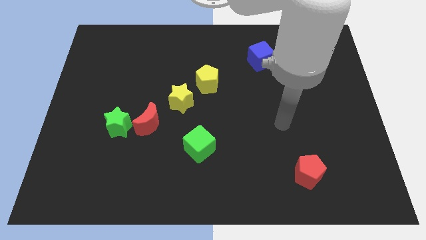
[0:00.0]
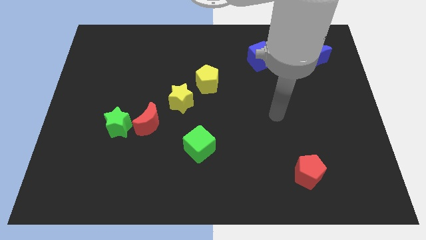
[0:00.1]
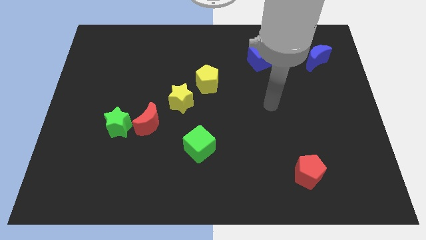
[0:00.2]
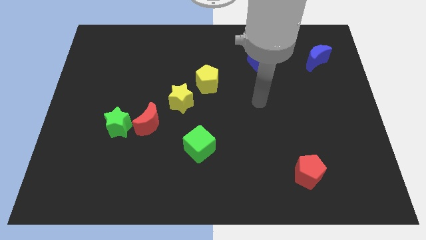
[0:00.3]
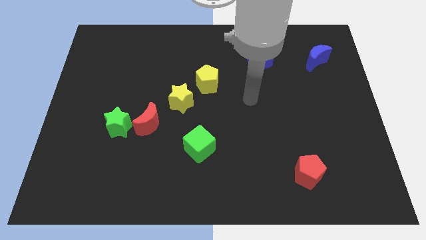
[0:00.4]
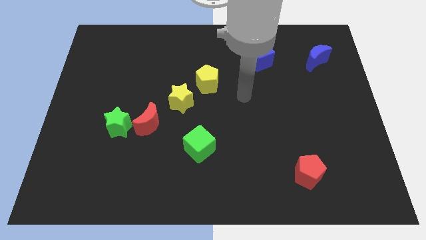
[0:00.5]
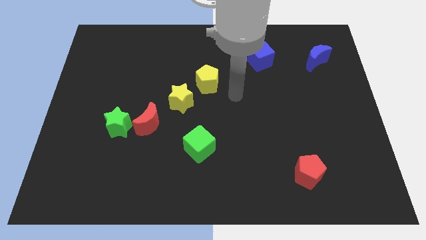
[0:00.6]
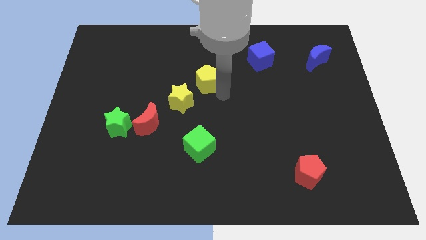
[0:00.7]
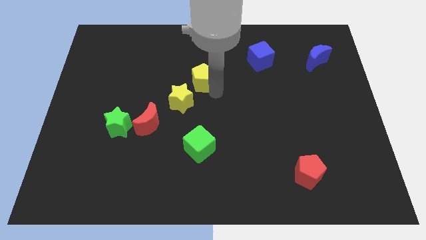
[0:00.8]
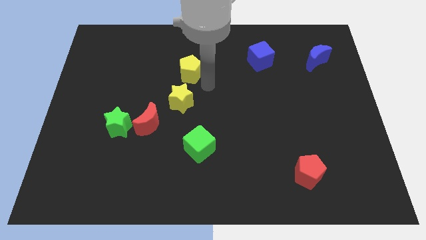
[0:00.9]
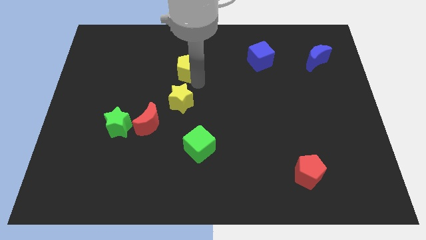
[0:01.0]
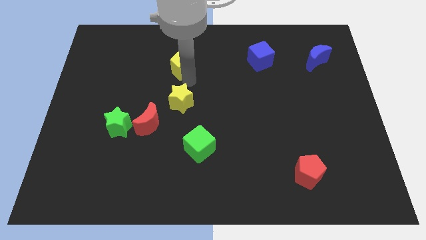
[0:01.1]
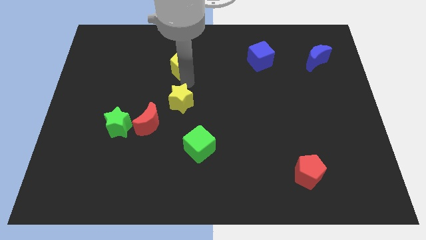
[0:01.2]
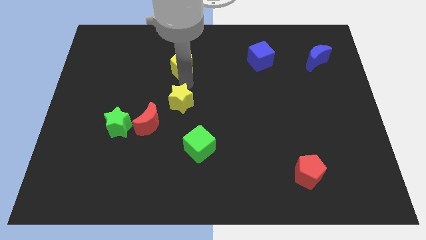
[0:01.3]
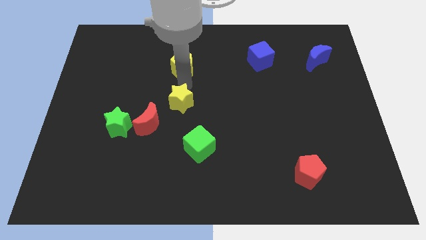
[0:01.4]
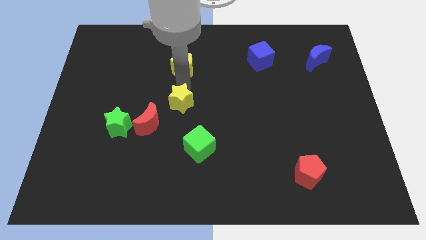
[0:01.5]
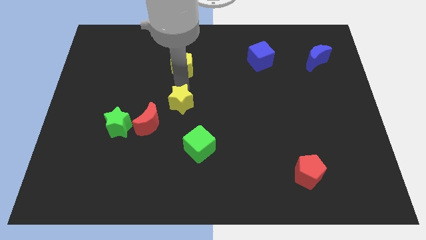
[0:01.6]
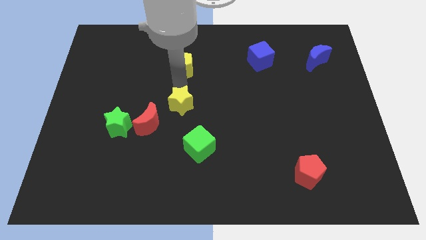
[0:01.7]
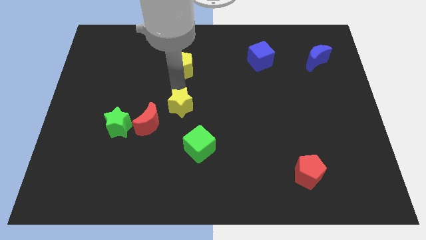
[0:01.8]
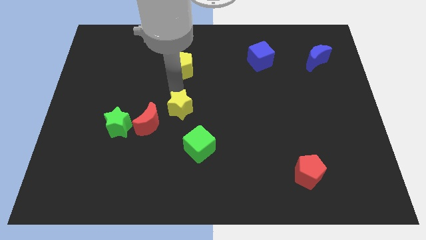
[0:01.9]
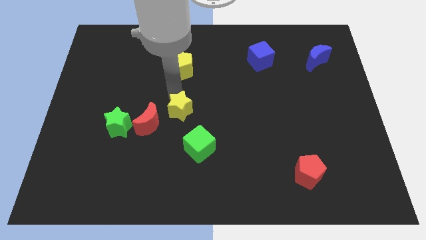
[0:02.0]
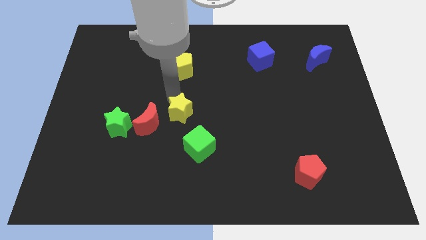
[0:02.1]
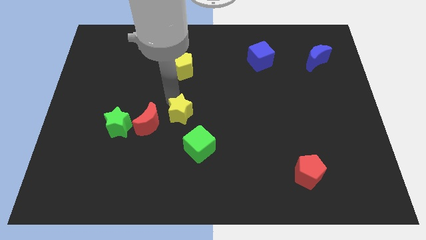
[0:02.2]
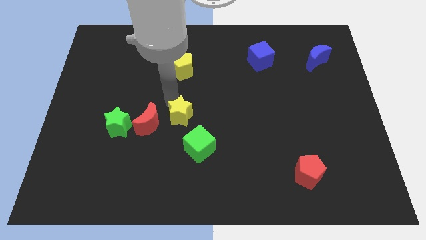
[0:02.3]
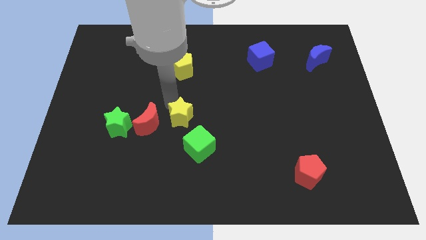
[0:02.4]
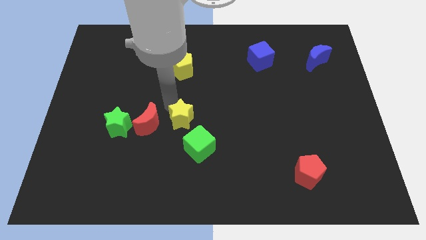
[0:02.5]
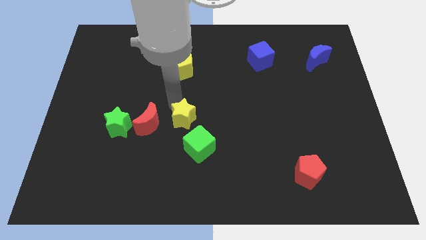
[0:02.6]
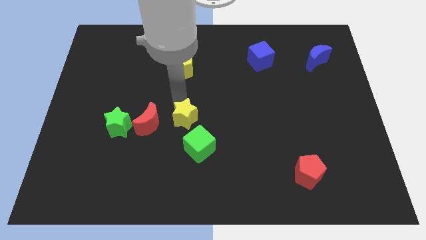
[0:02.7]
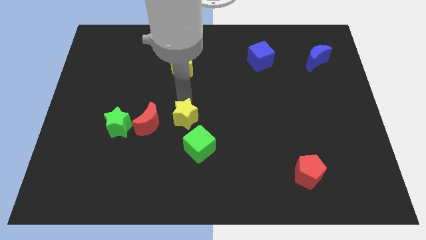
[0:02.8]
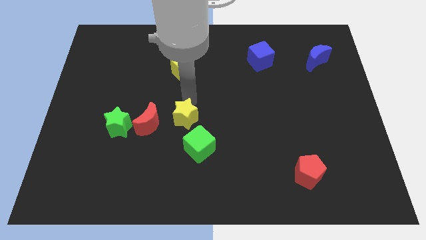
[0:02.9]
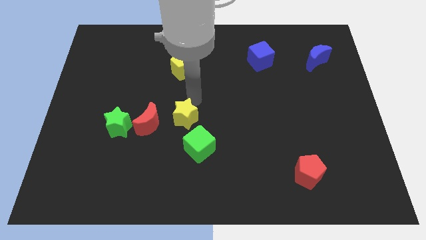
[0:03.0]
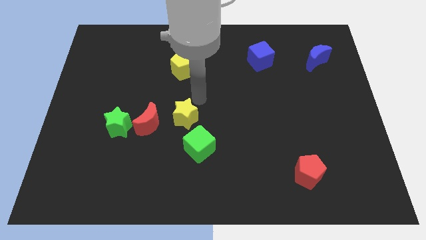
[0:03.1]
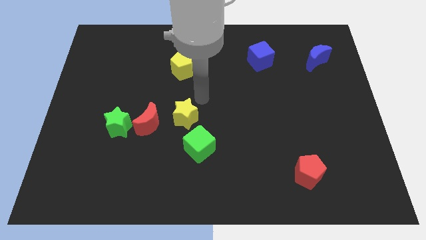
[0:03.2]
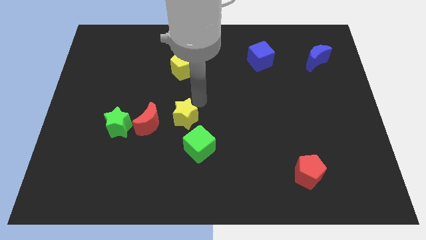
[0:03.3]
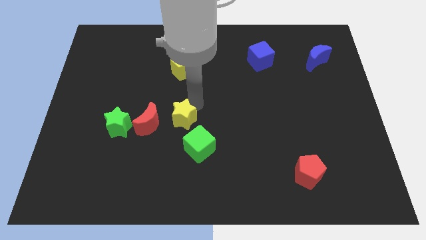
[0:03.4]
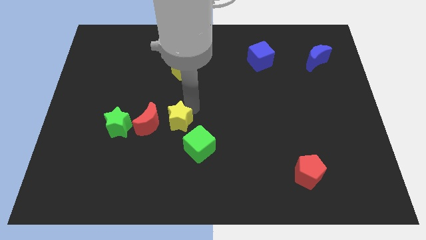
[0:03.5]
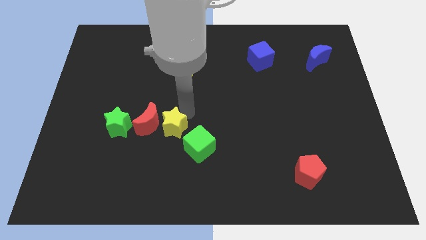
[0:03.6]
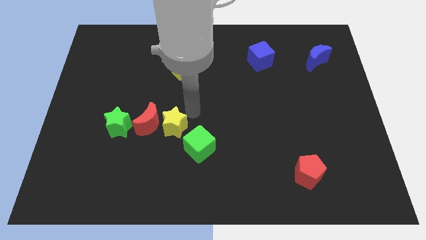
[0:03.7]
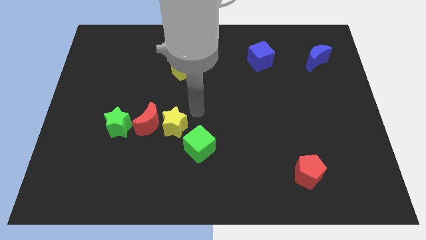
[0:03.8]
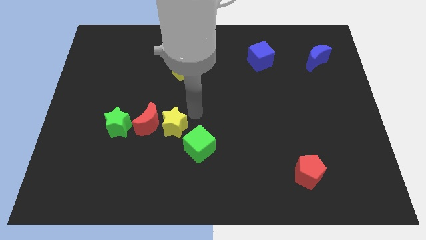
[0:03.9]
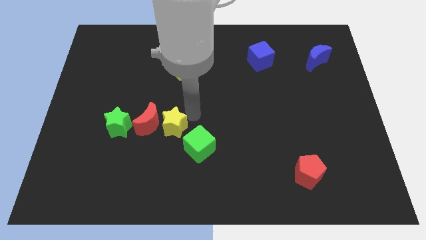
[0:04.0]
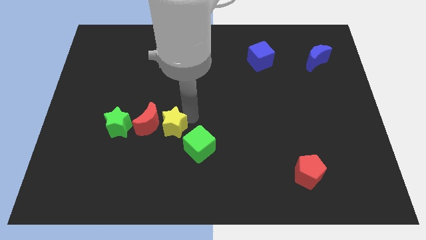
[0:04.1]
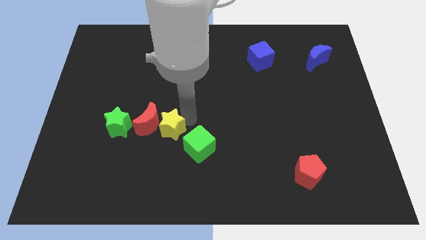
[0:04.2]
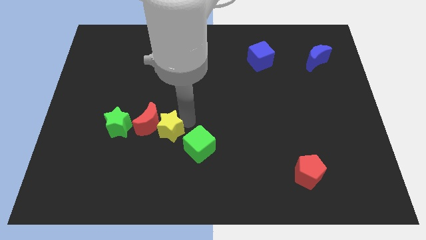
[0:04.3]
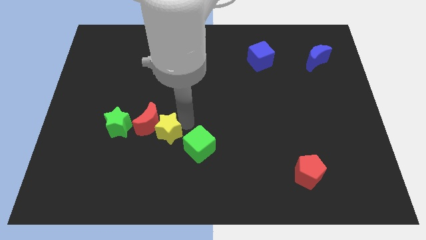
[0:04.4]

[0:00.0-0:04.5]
move the yellow star slightly down and to the left diagonally

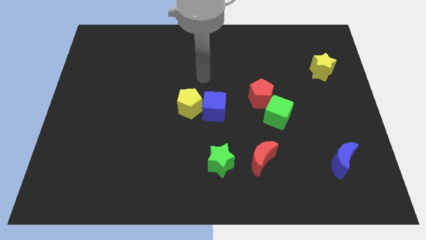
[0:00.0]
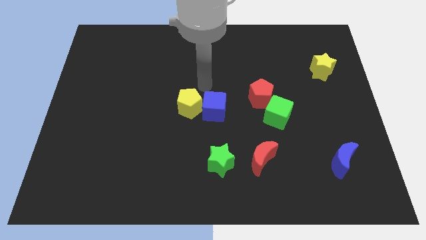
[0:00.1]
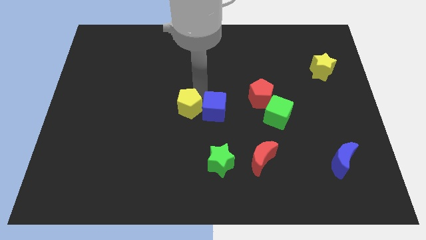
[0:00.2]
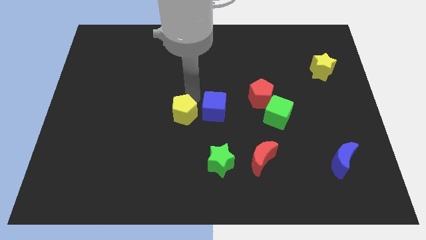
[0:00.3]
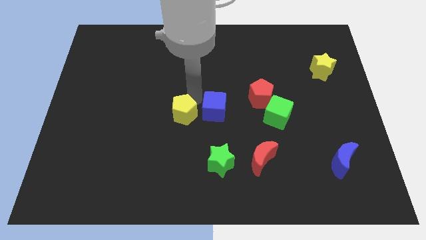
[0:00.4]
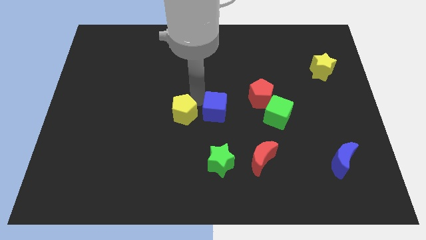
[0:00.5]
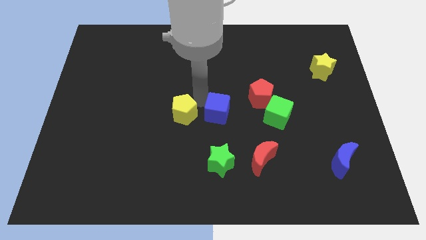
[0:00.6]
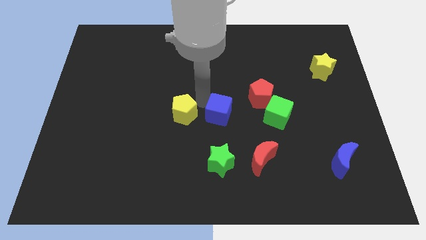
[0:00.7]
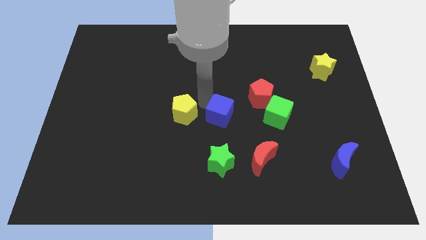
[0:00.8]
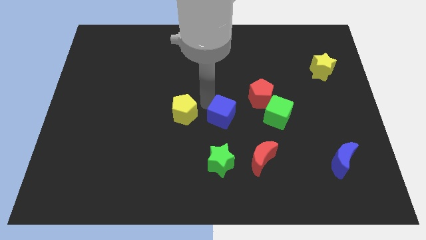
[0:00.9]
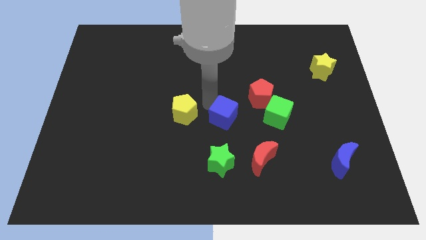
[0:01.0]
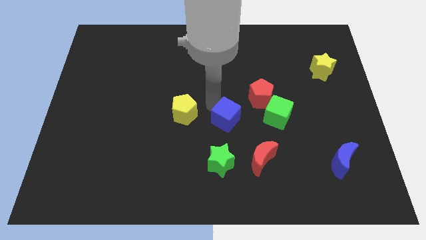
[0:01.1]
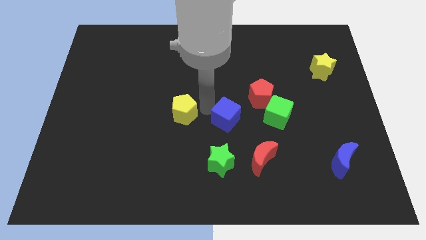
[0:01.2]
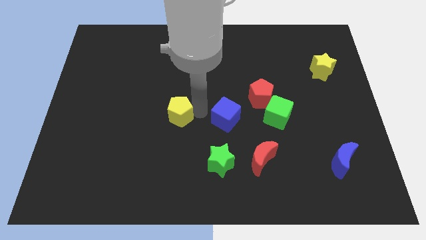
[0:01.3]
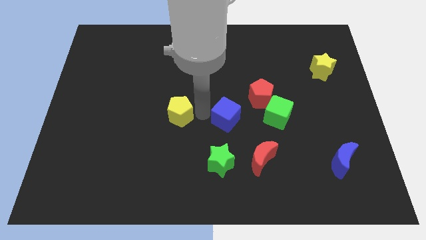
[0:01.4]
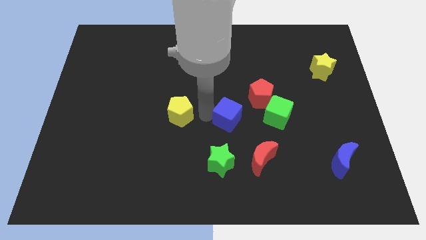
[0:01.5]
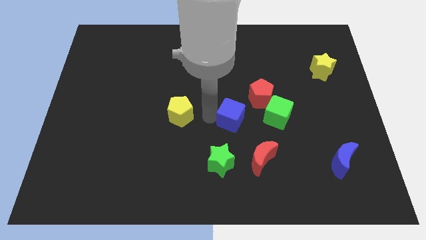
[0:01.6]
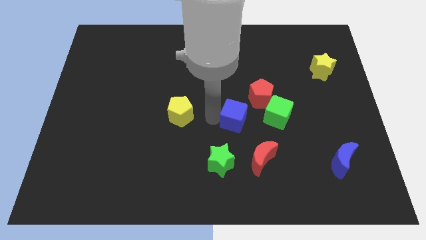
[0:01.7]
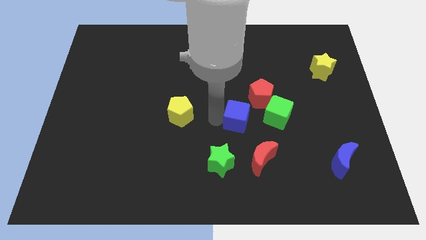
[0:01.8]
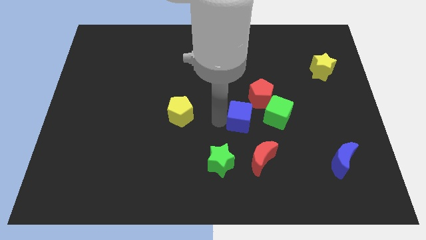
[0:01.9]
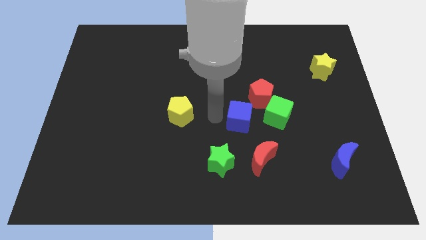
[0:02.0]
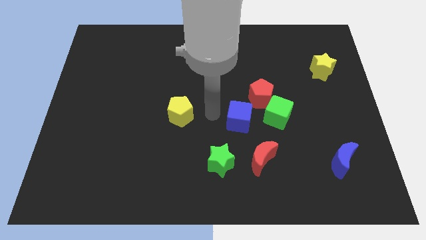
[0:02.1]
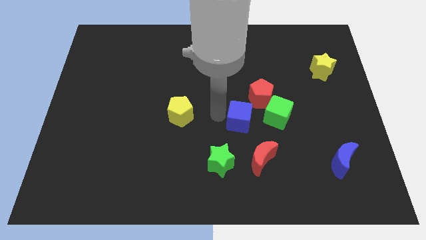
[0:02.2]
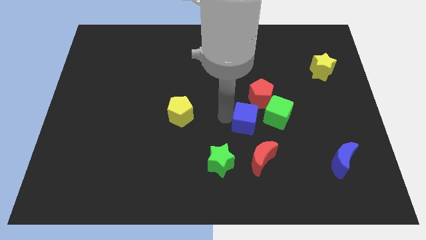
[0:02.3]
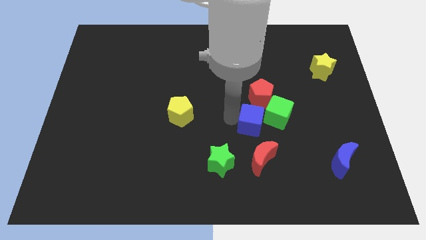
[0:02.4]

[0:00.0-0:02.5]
move the blue cube to the right a bit

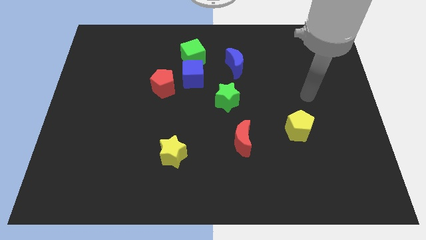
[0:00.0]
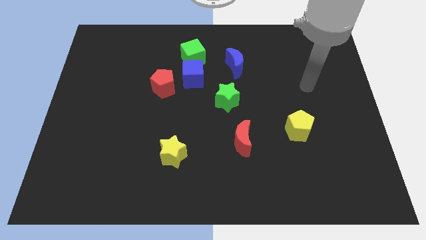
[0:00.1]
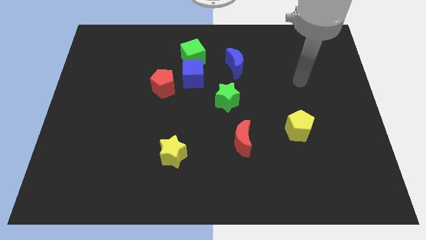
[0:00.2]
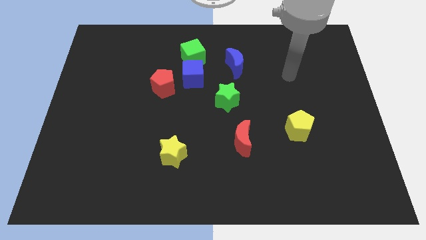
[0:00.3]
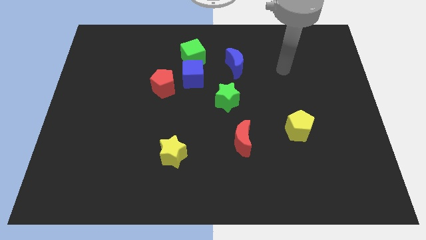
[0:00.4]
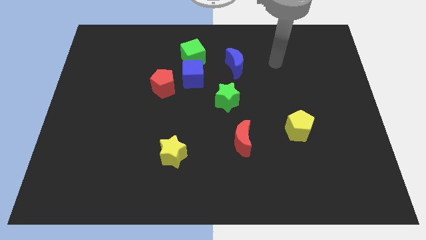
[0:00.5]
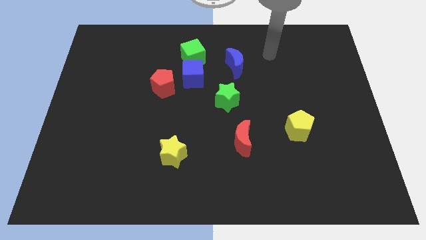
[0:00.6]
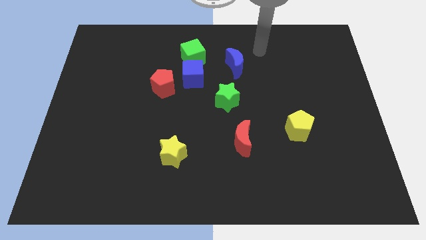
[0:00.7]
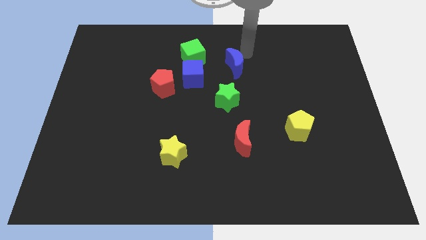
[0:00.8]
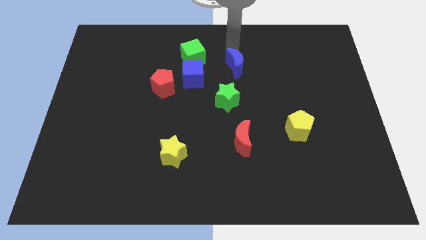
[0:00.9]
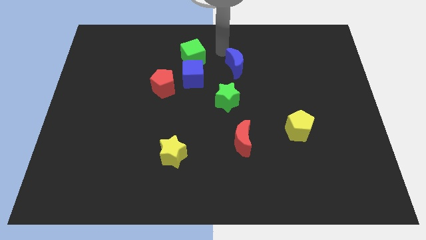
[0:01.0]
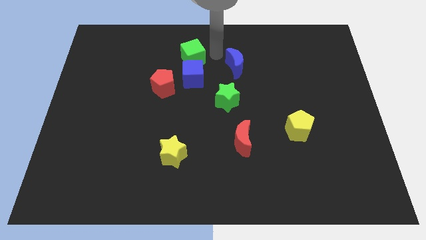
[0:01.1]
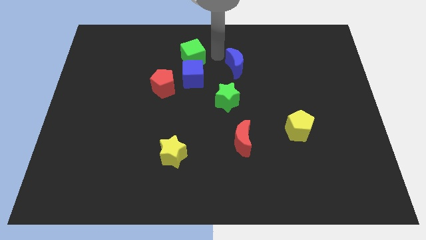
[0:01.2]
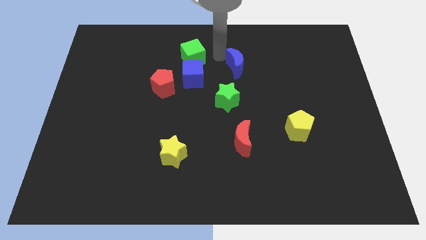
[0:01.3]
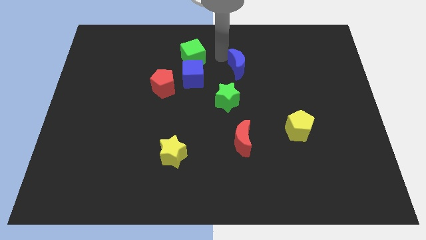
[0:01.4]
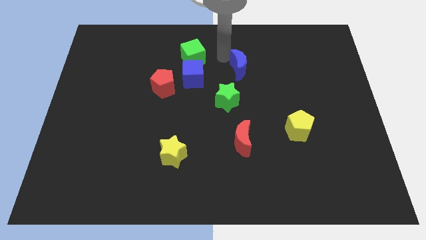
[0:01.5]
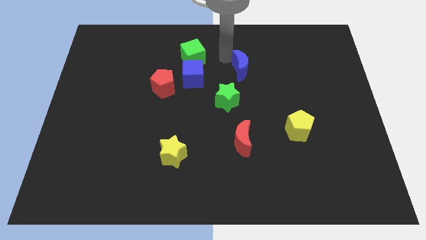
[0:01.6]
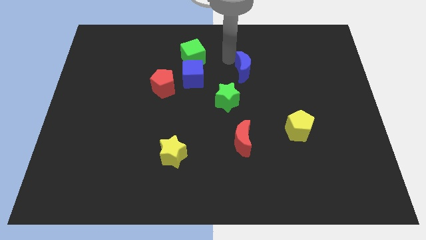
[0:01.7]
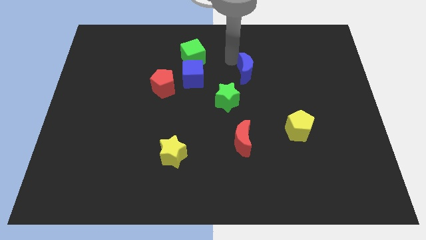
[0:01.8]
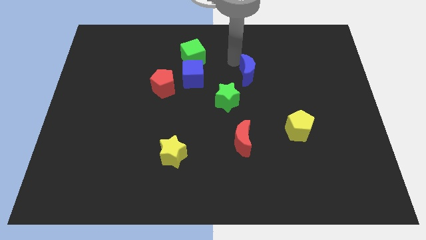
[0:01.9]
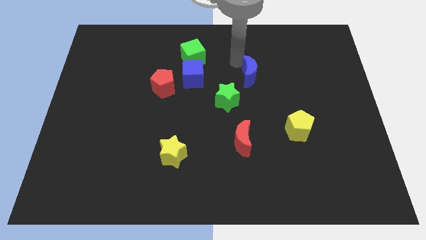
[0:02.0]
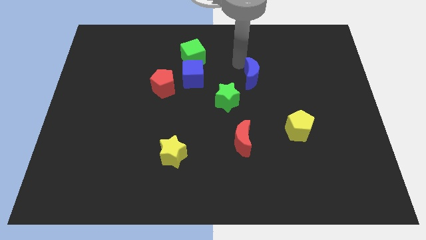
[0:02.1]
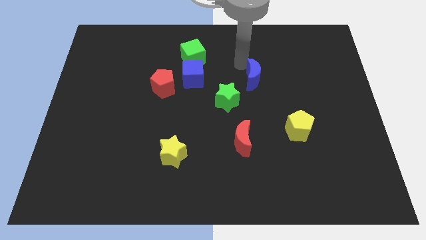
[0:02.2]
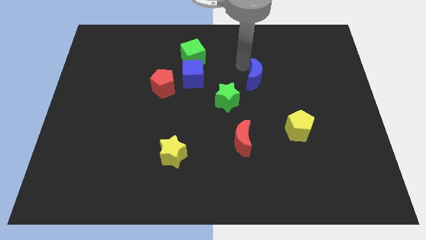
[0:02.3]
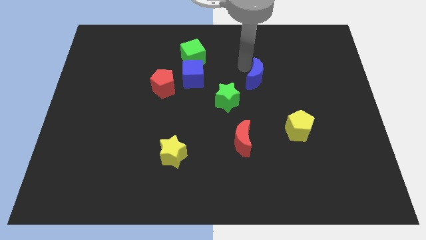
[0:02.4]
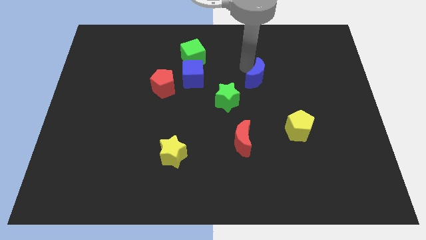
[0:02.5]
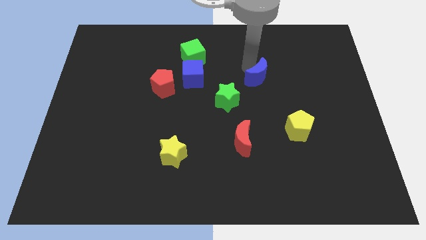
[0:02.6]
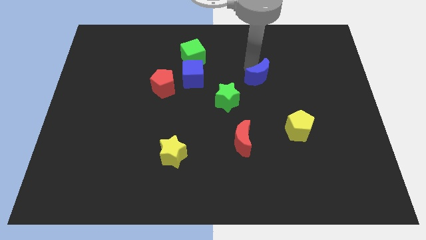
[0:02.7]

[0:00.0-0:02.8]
move the blue moon slightly diagonally down and right
